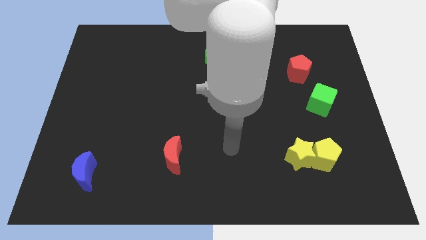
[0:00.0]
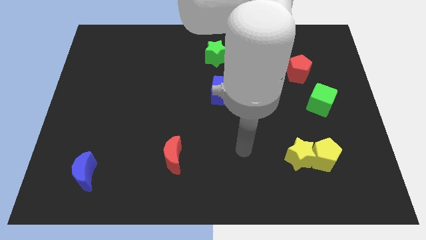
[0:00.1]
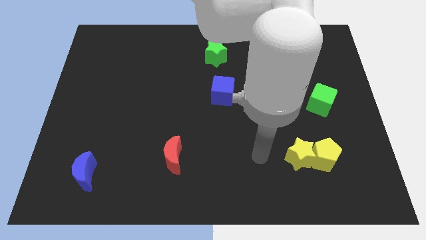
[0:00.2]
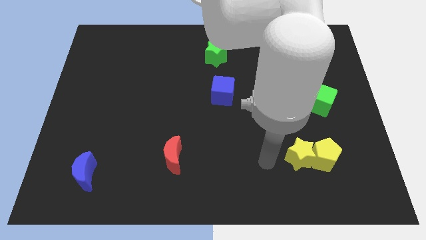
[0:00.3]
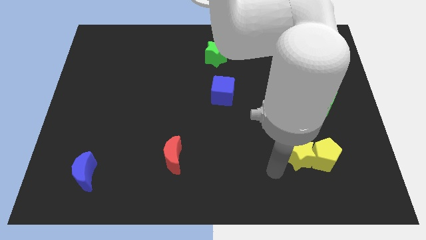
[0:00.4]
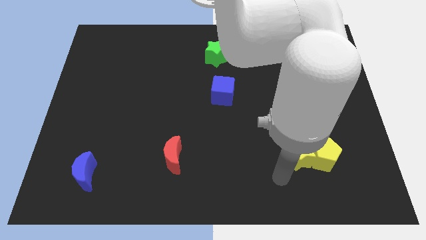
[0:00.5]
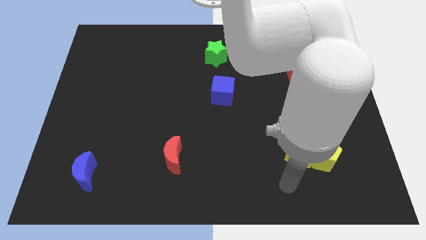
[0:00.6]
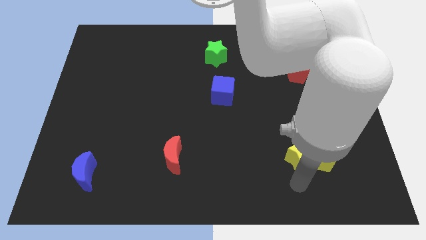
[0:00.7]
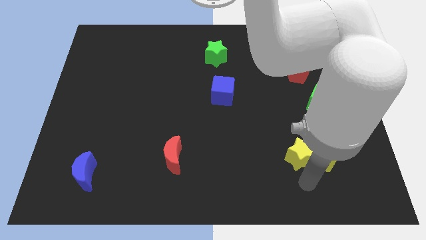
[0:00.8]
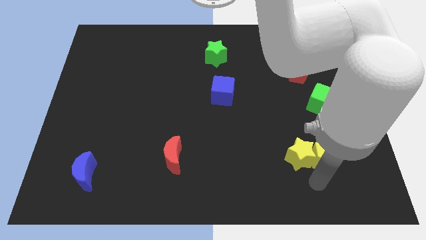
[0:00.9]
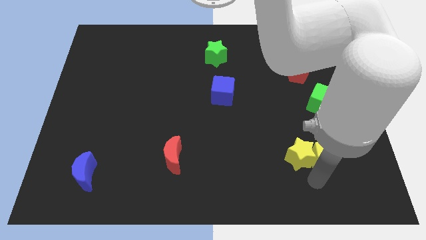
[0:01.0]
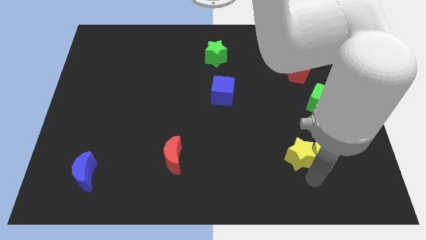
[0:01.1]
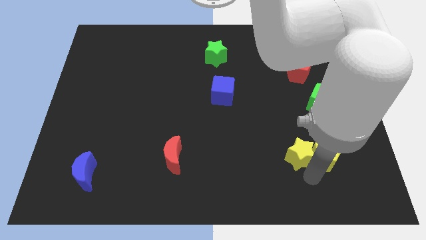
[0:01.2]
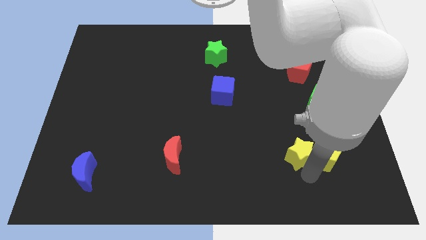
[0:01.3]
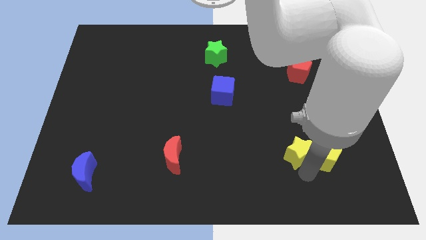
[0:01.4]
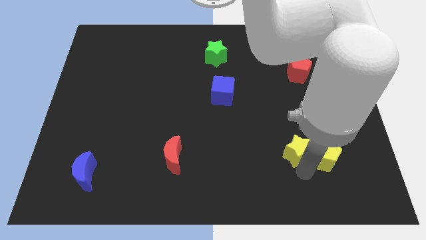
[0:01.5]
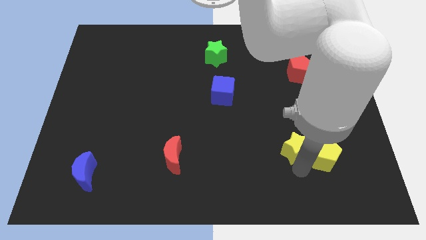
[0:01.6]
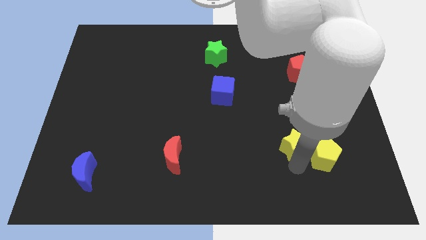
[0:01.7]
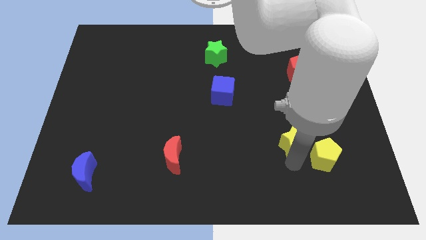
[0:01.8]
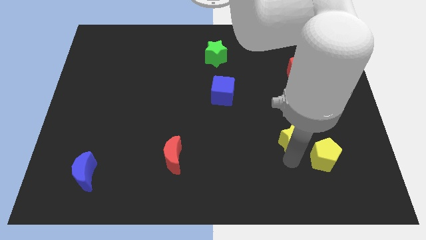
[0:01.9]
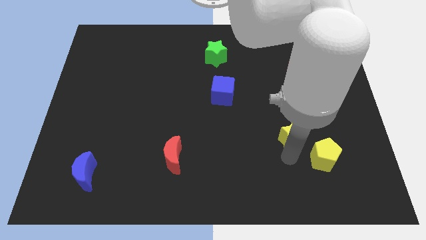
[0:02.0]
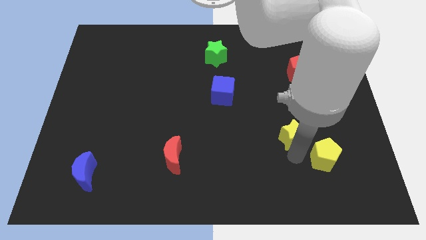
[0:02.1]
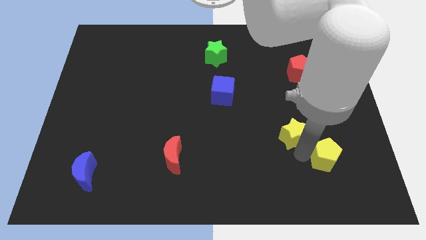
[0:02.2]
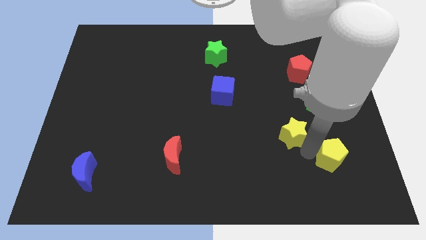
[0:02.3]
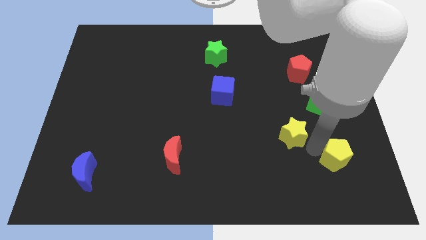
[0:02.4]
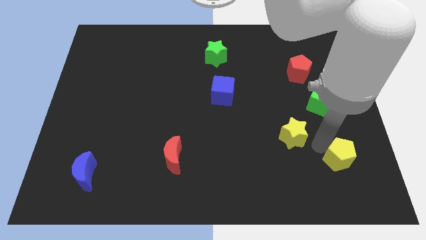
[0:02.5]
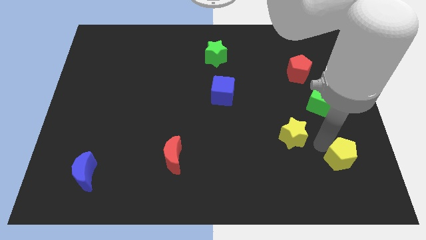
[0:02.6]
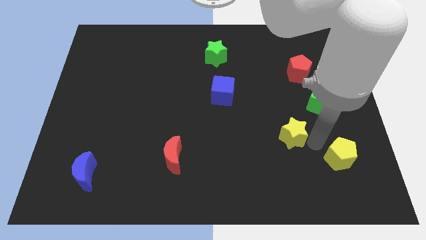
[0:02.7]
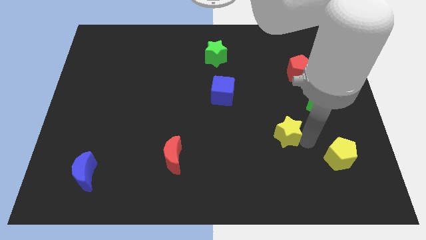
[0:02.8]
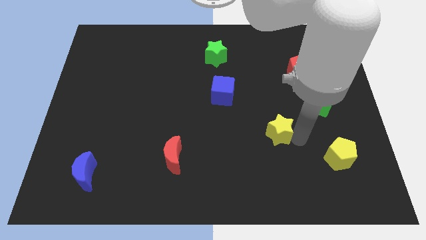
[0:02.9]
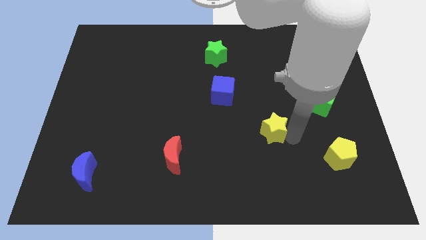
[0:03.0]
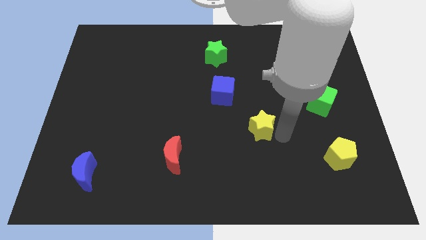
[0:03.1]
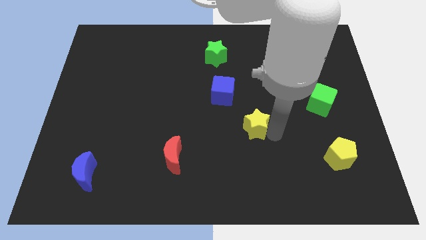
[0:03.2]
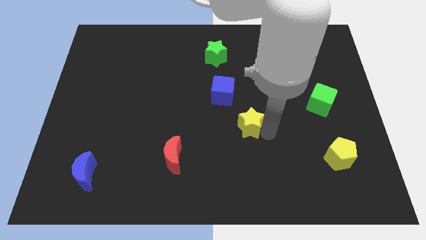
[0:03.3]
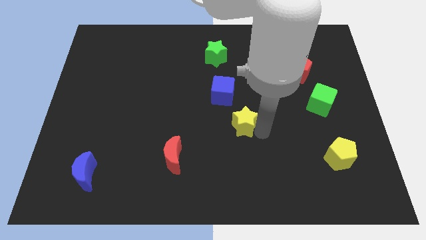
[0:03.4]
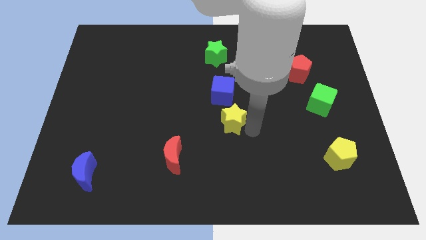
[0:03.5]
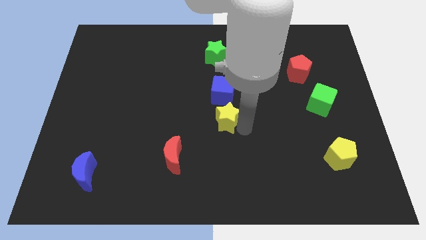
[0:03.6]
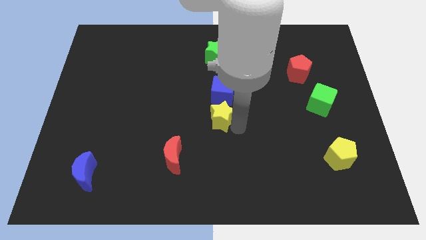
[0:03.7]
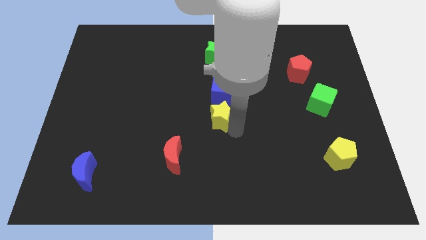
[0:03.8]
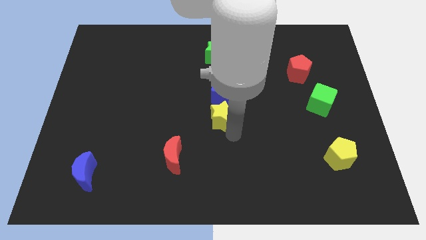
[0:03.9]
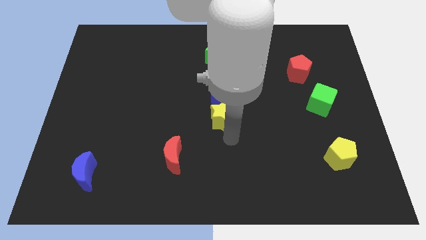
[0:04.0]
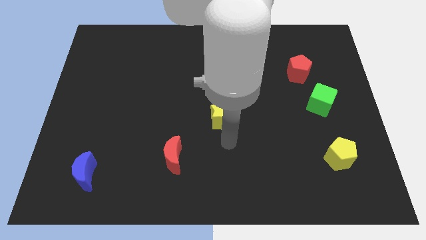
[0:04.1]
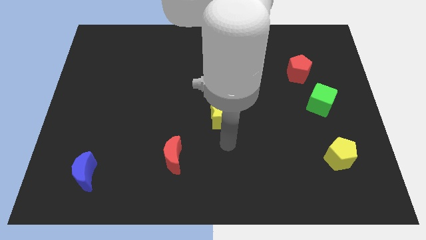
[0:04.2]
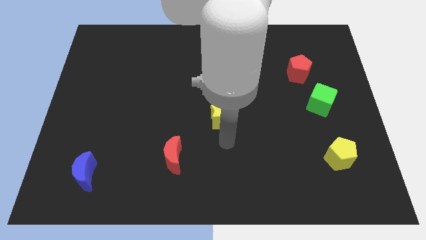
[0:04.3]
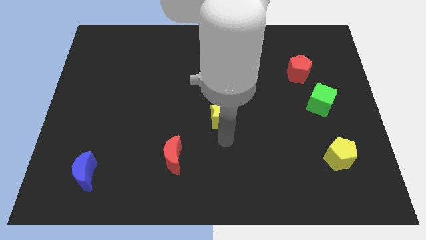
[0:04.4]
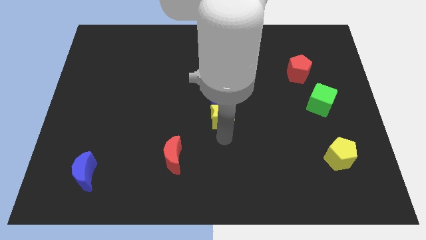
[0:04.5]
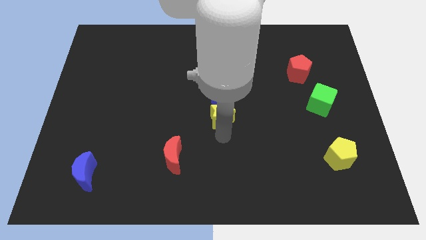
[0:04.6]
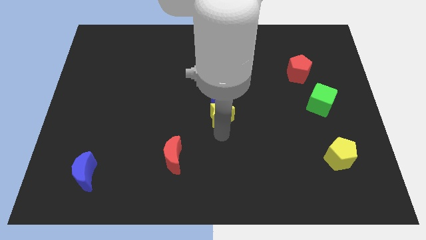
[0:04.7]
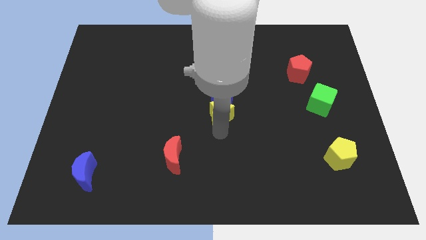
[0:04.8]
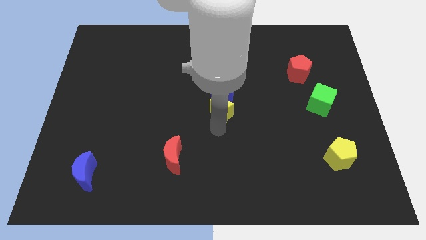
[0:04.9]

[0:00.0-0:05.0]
slide the yellow star up and then to the left

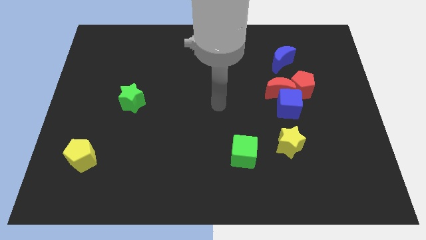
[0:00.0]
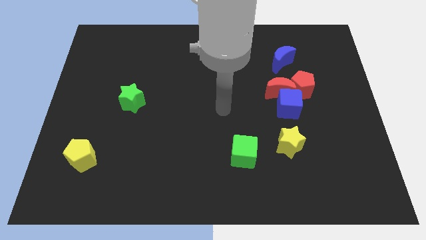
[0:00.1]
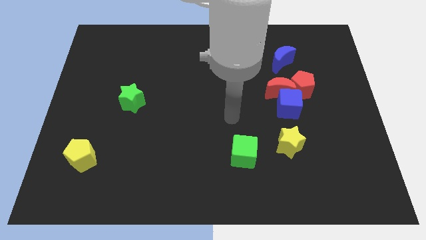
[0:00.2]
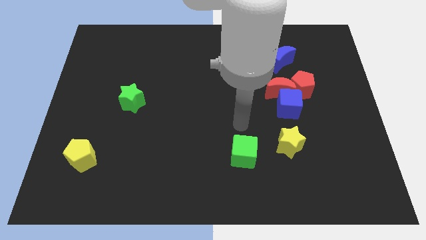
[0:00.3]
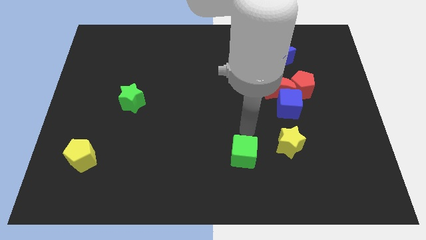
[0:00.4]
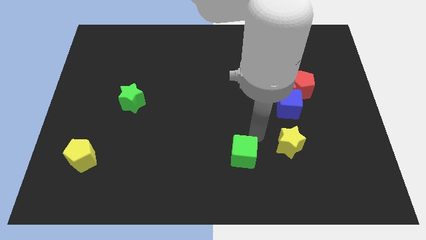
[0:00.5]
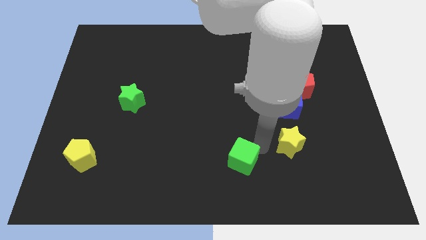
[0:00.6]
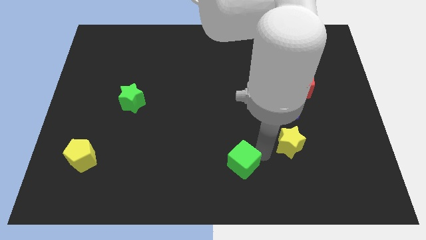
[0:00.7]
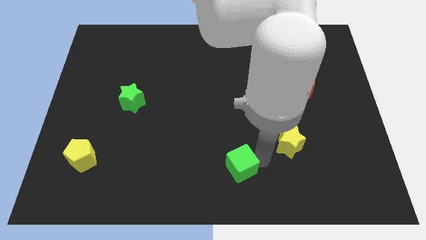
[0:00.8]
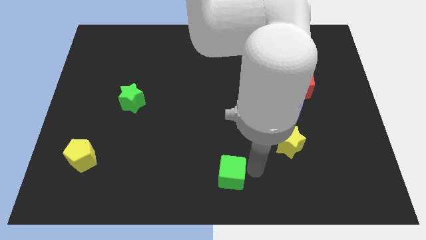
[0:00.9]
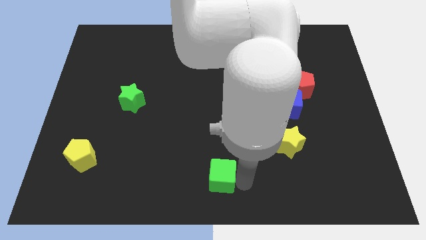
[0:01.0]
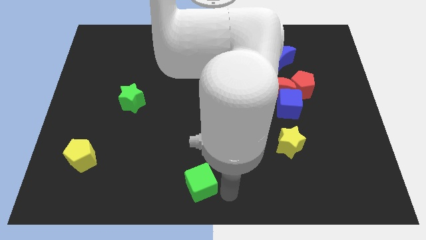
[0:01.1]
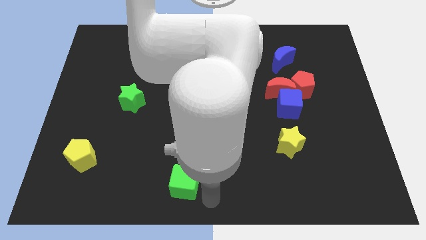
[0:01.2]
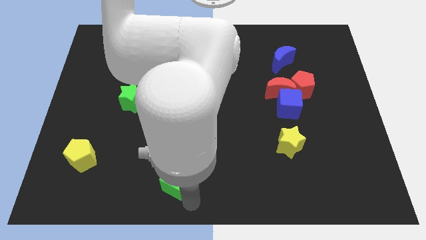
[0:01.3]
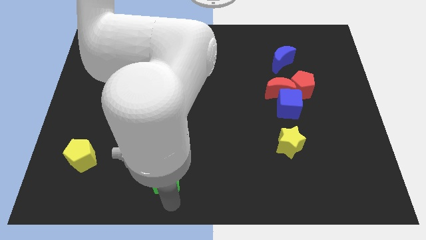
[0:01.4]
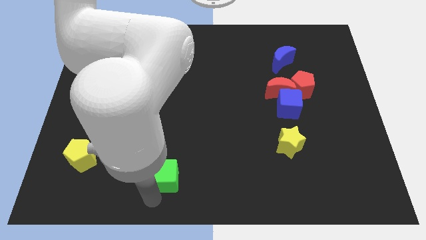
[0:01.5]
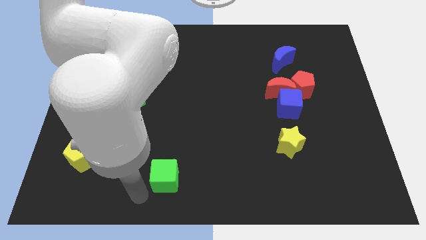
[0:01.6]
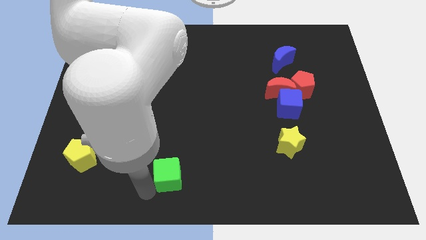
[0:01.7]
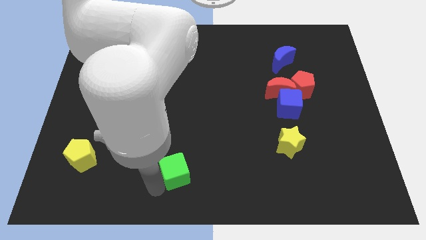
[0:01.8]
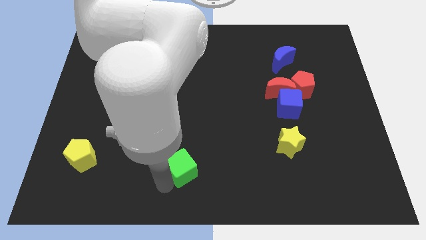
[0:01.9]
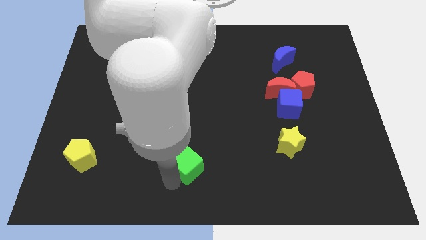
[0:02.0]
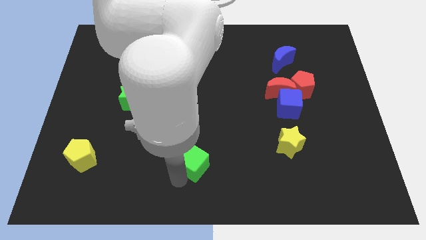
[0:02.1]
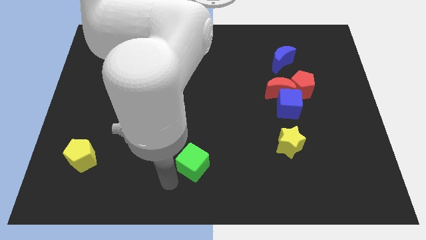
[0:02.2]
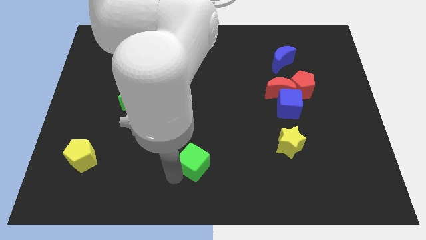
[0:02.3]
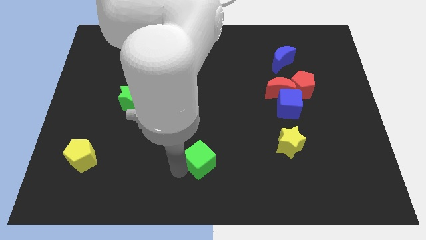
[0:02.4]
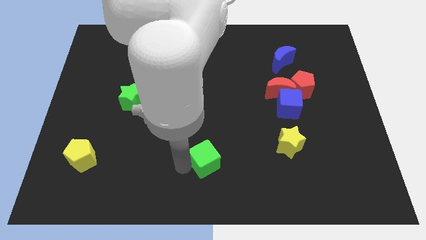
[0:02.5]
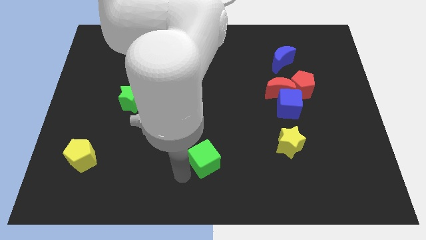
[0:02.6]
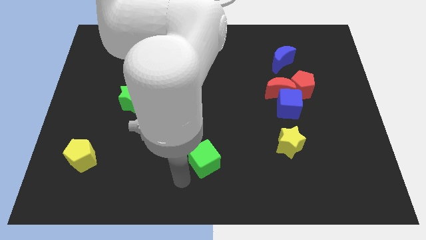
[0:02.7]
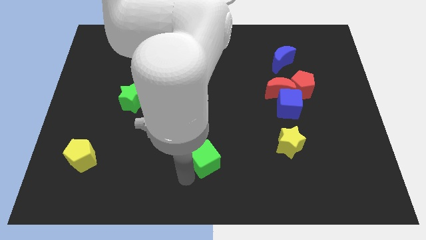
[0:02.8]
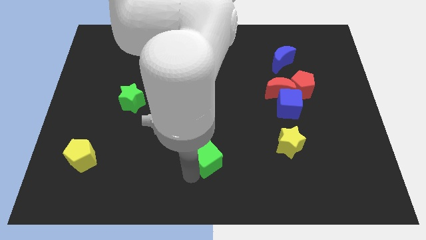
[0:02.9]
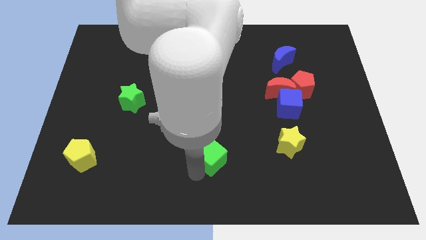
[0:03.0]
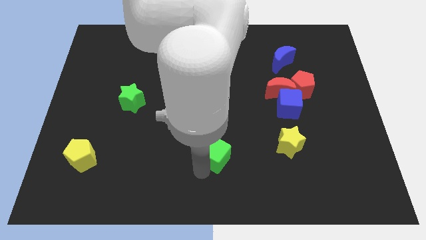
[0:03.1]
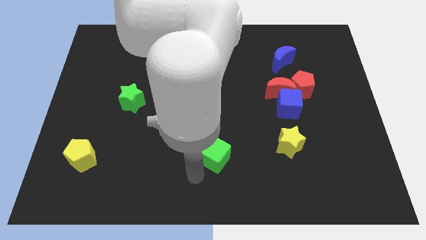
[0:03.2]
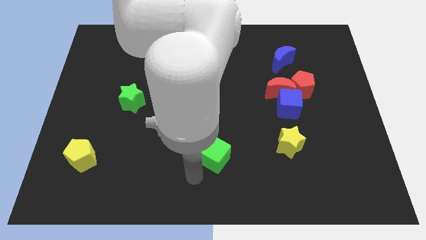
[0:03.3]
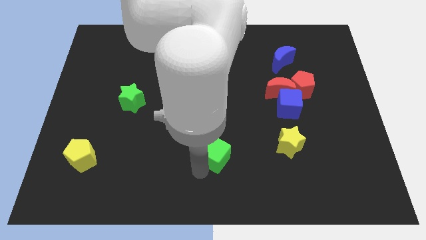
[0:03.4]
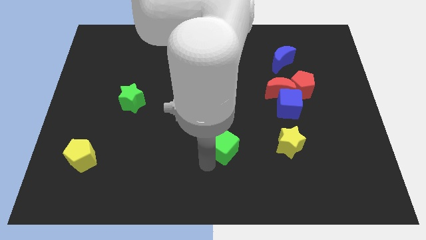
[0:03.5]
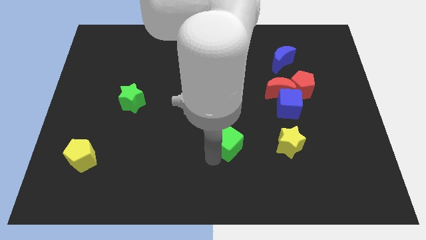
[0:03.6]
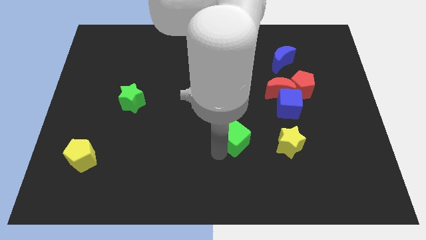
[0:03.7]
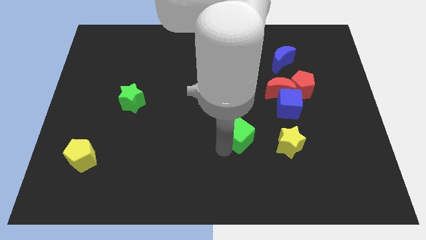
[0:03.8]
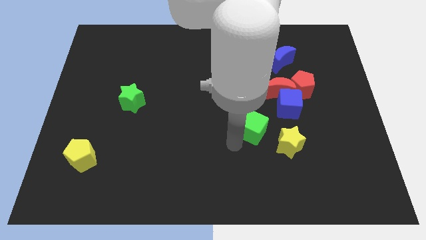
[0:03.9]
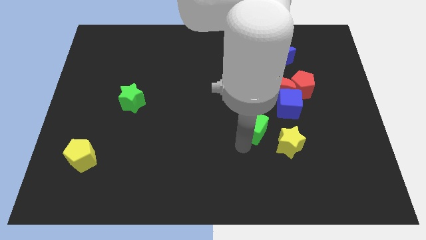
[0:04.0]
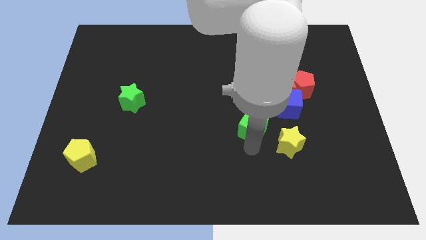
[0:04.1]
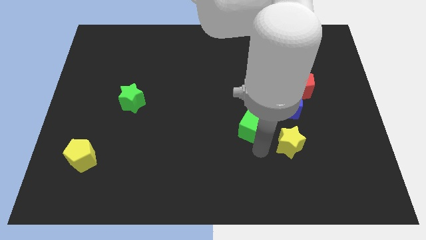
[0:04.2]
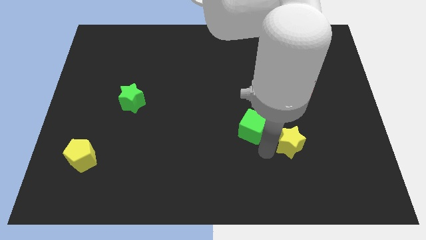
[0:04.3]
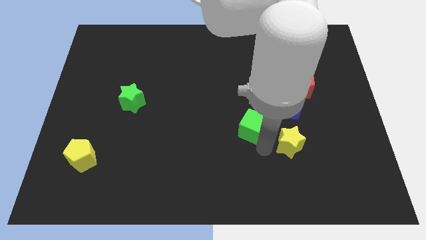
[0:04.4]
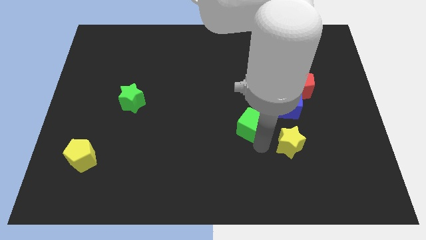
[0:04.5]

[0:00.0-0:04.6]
slightly slide the green cube upwards
